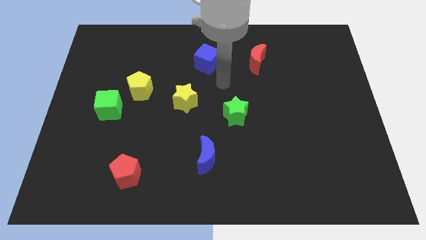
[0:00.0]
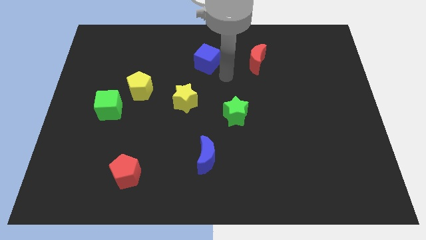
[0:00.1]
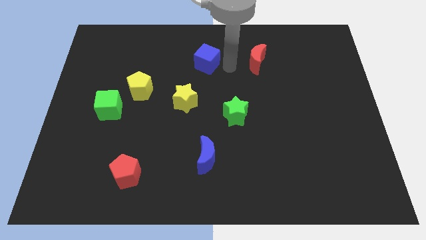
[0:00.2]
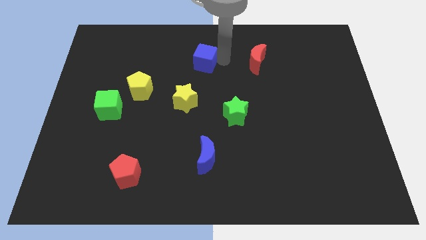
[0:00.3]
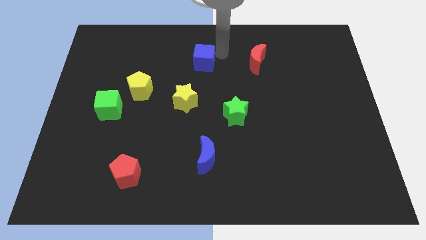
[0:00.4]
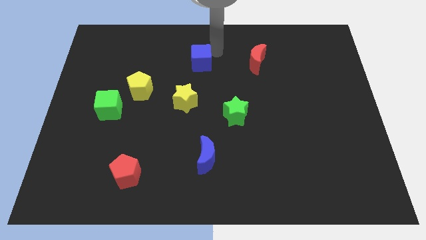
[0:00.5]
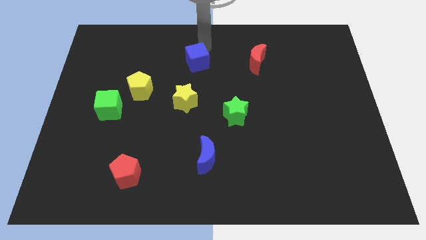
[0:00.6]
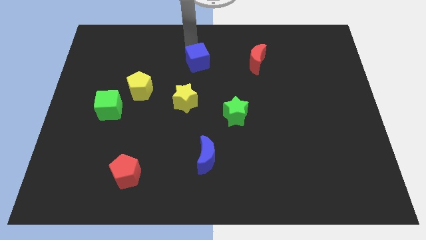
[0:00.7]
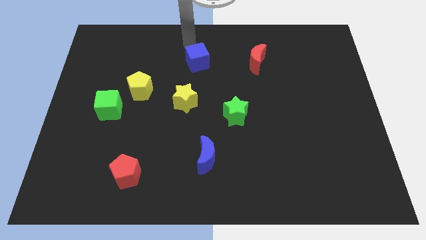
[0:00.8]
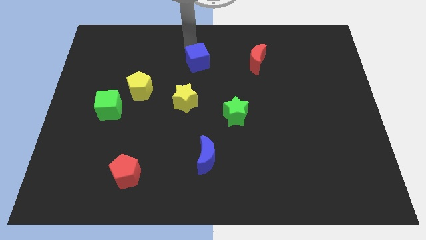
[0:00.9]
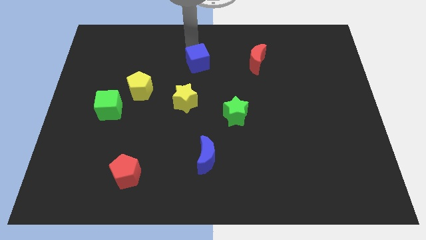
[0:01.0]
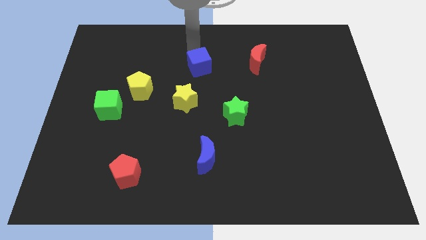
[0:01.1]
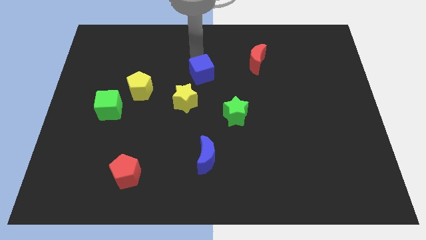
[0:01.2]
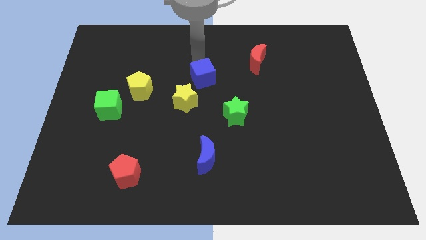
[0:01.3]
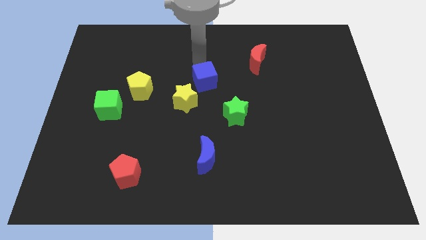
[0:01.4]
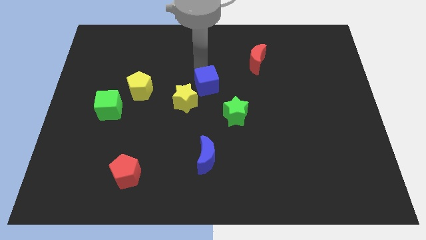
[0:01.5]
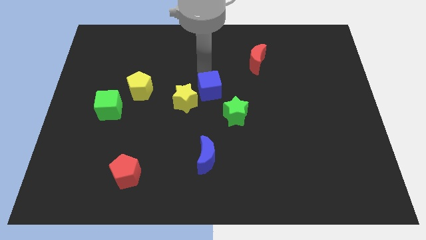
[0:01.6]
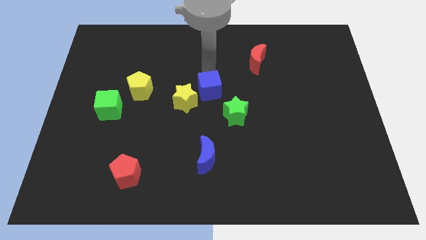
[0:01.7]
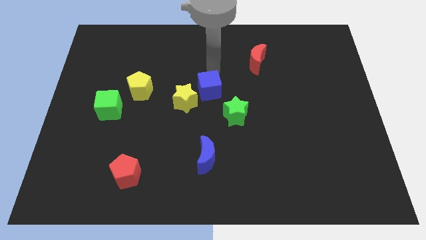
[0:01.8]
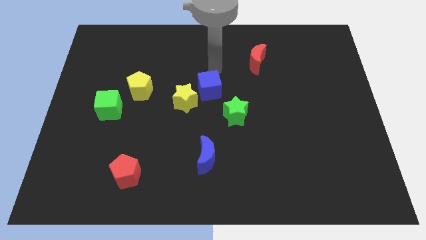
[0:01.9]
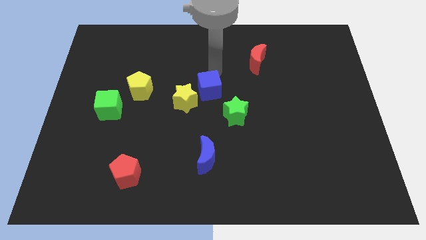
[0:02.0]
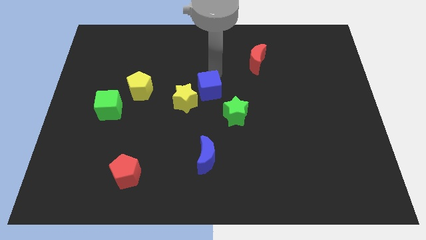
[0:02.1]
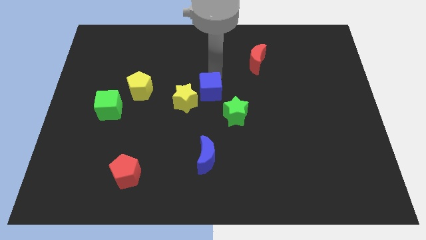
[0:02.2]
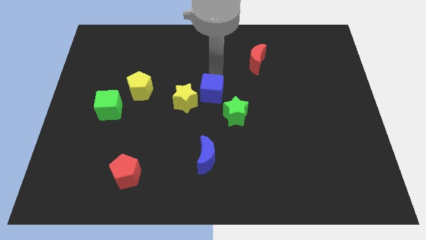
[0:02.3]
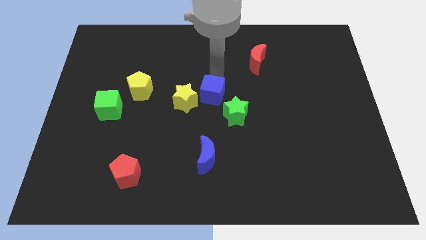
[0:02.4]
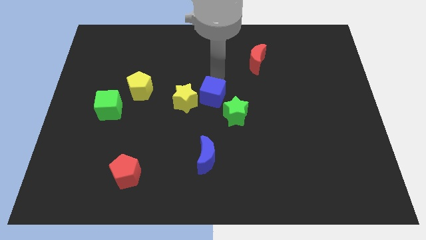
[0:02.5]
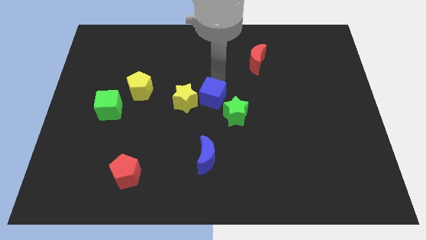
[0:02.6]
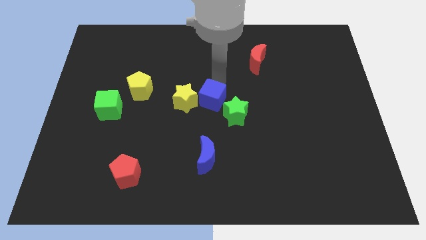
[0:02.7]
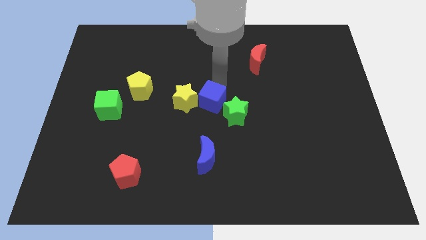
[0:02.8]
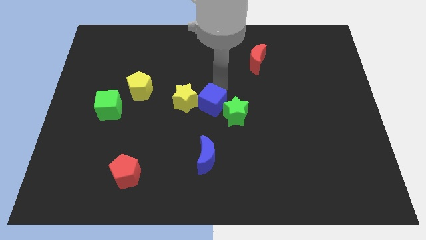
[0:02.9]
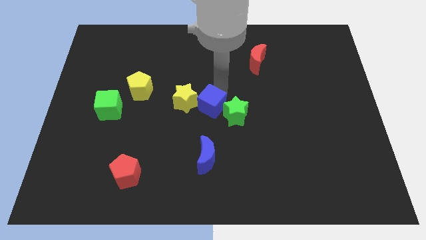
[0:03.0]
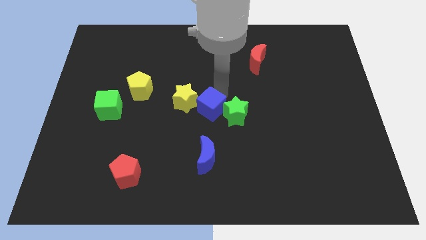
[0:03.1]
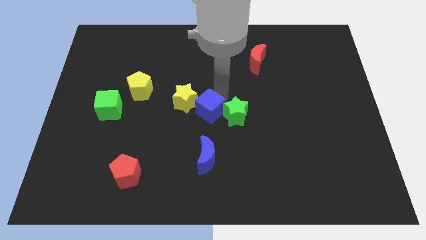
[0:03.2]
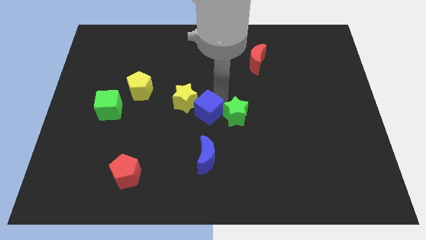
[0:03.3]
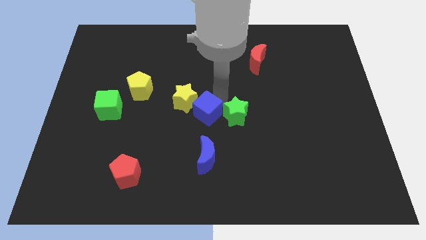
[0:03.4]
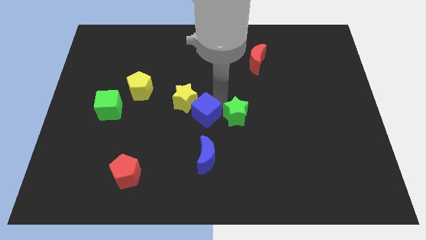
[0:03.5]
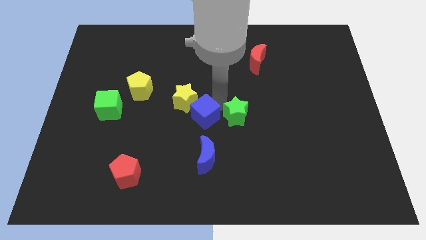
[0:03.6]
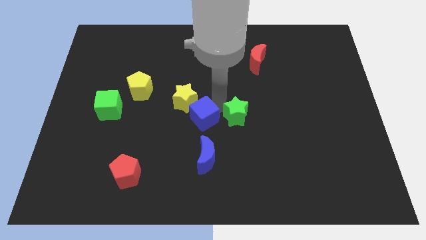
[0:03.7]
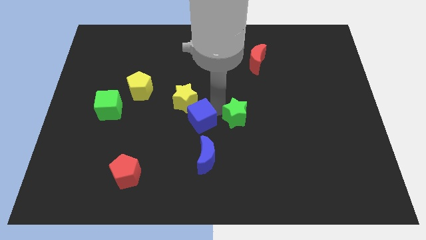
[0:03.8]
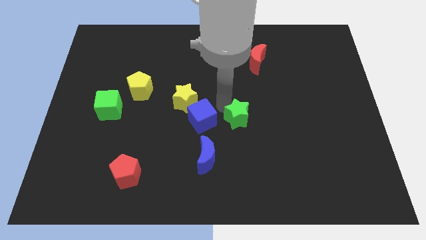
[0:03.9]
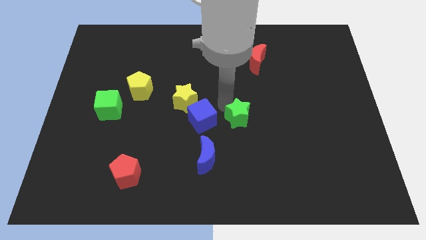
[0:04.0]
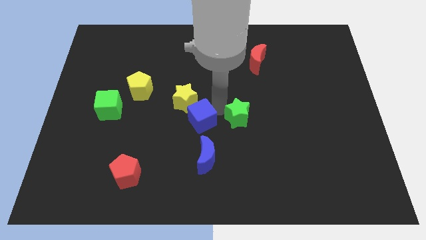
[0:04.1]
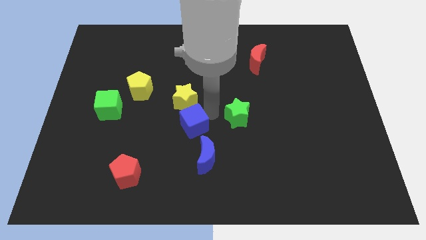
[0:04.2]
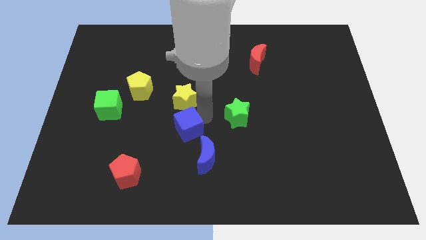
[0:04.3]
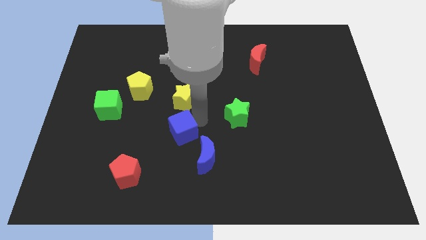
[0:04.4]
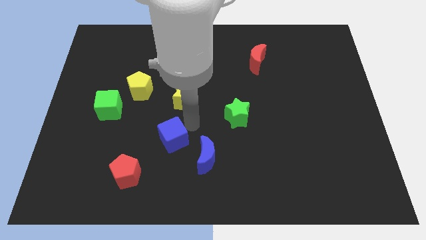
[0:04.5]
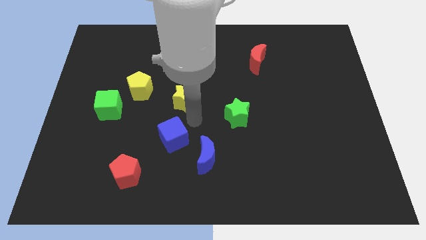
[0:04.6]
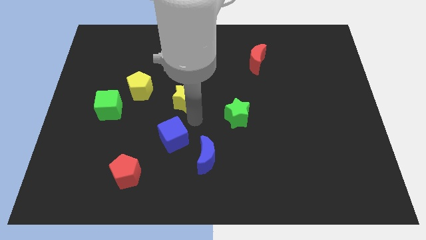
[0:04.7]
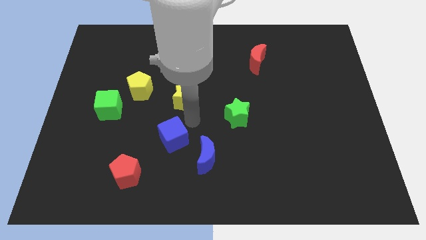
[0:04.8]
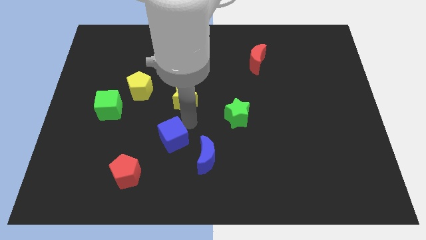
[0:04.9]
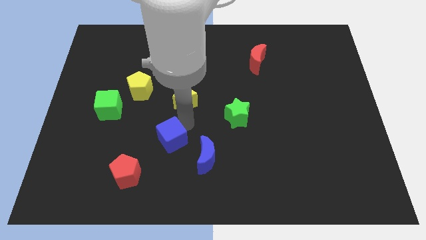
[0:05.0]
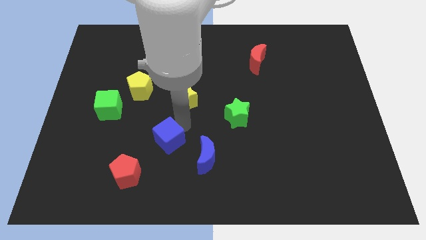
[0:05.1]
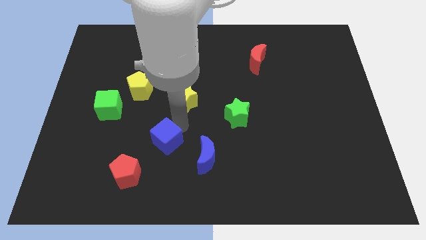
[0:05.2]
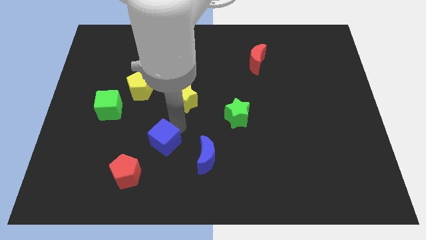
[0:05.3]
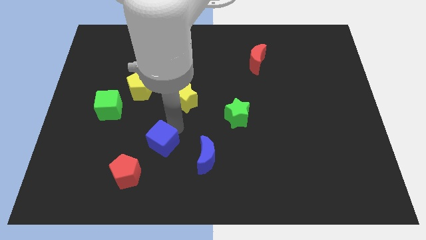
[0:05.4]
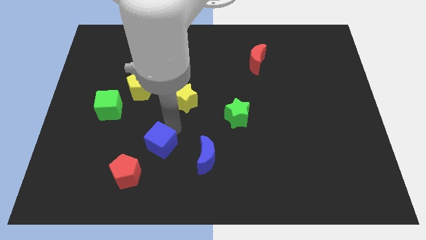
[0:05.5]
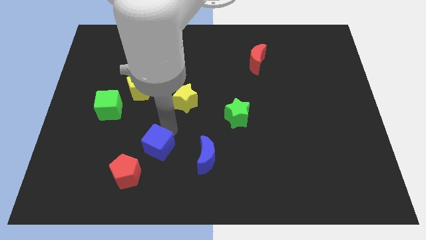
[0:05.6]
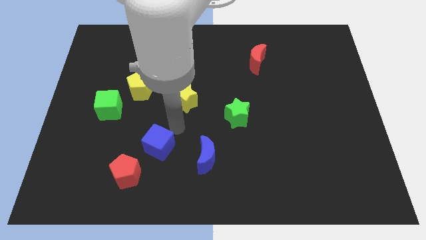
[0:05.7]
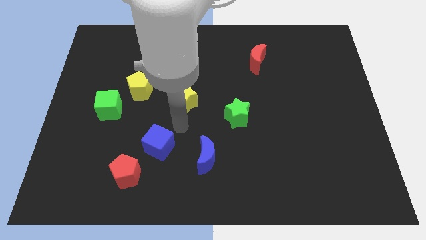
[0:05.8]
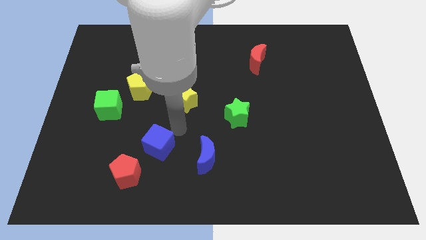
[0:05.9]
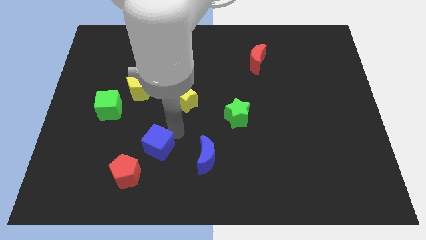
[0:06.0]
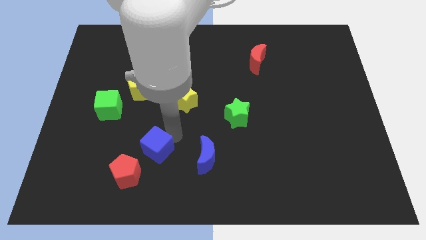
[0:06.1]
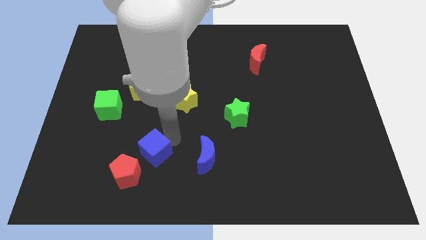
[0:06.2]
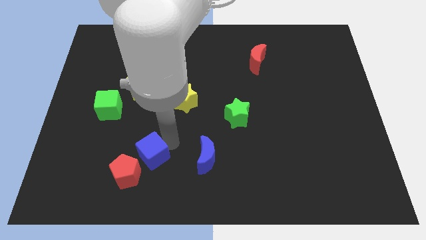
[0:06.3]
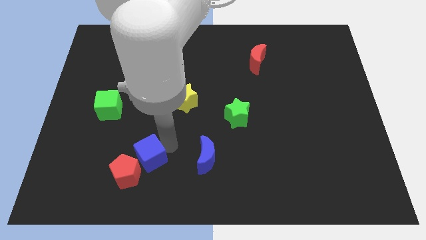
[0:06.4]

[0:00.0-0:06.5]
push the blue cube towards the red pentagon
